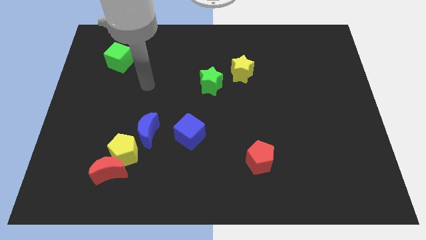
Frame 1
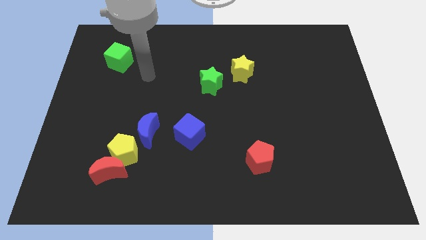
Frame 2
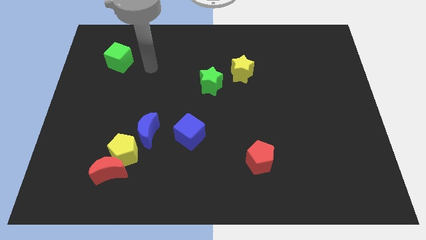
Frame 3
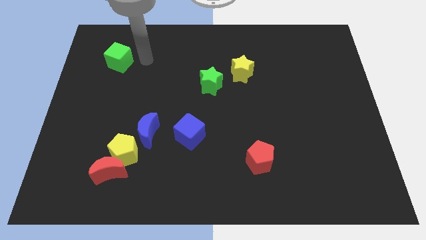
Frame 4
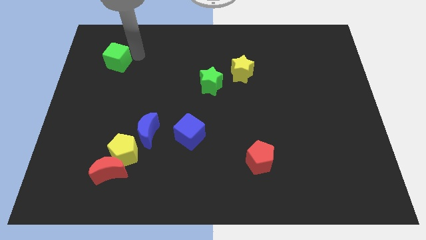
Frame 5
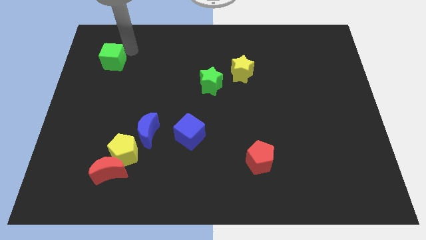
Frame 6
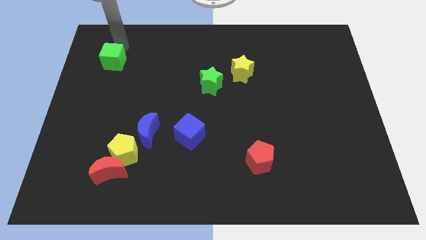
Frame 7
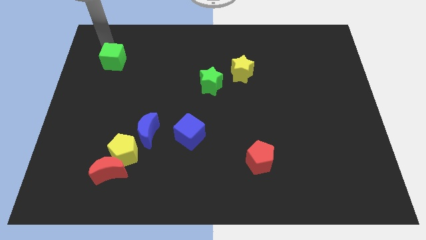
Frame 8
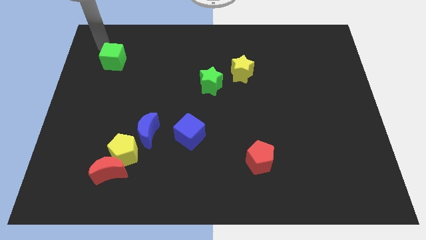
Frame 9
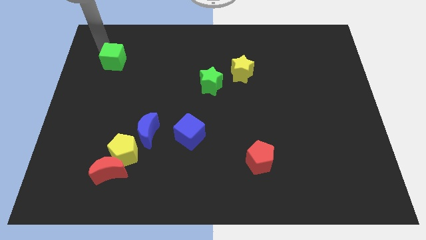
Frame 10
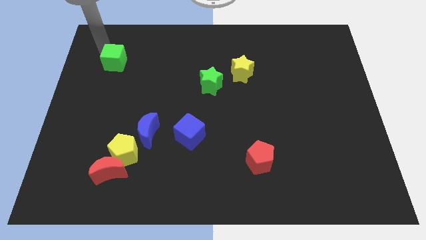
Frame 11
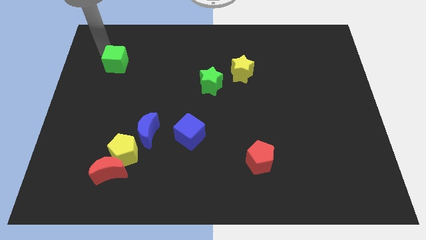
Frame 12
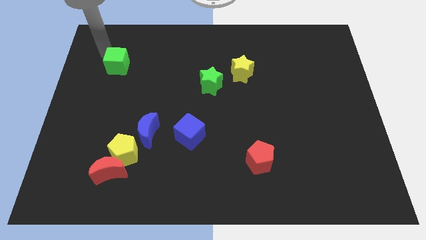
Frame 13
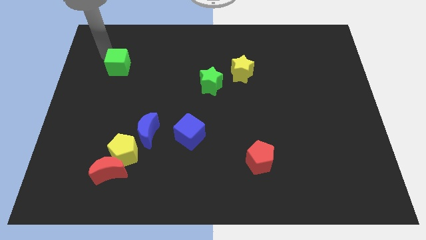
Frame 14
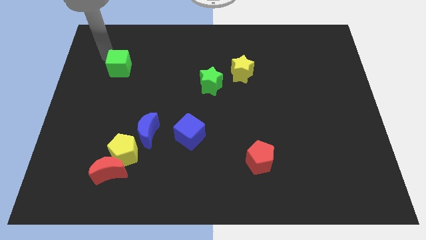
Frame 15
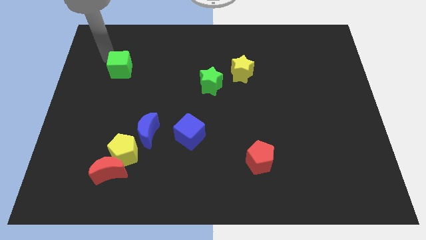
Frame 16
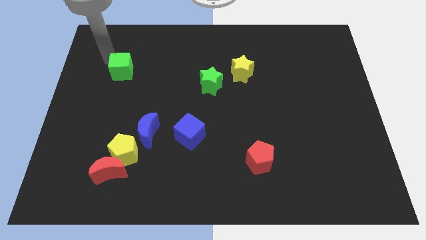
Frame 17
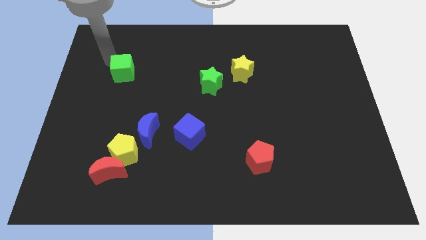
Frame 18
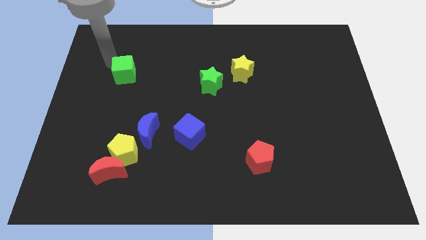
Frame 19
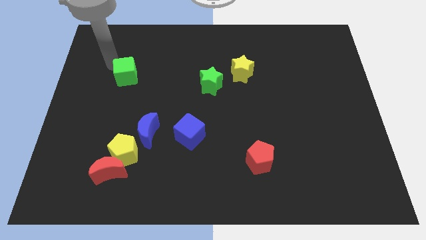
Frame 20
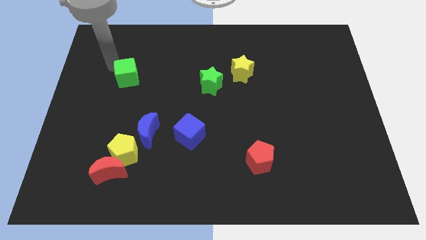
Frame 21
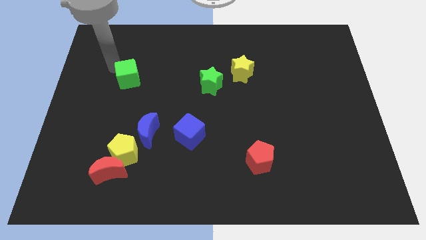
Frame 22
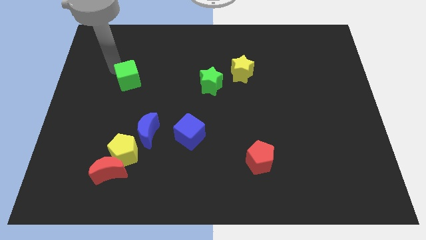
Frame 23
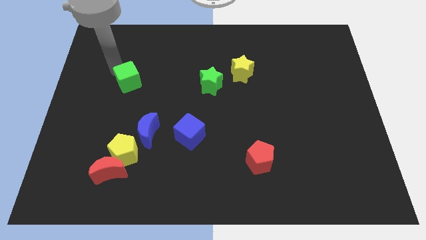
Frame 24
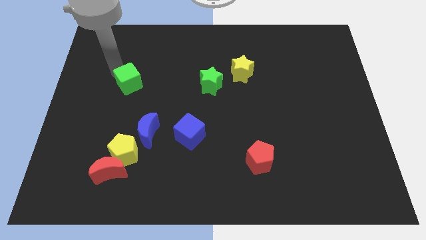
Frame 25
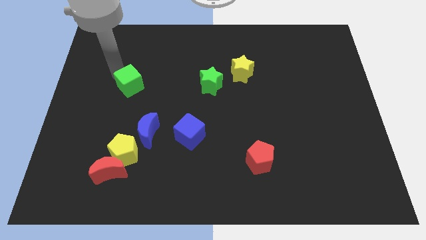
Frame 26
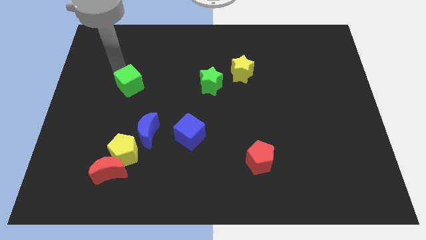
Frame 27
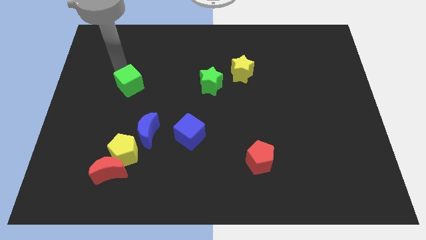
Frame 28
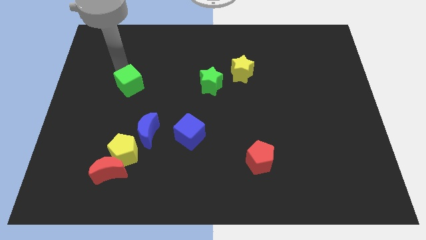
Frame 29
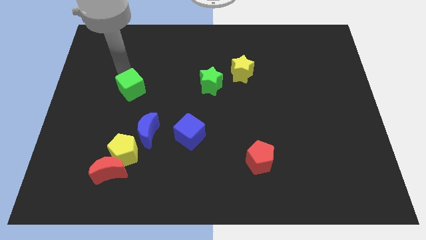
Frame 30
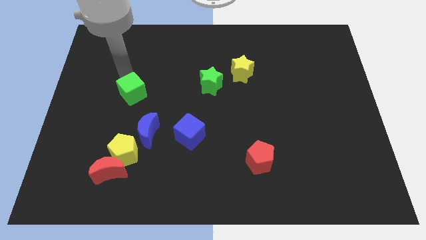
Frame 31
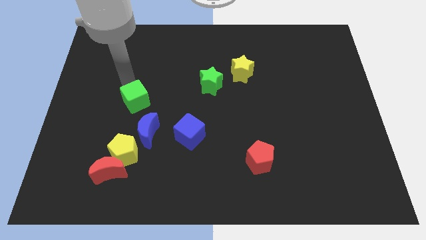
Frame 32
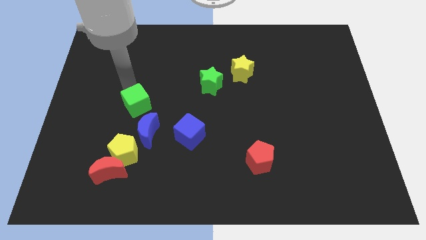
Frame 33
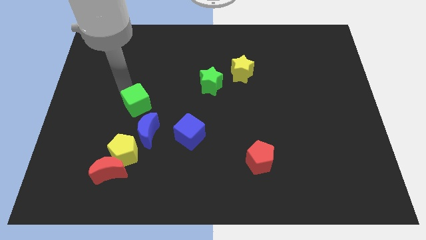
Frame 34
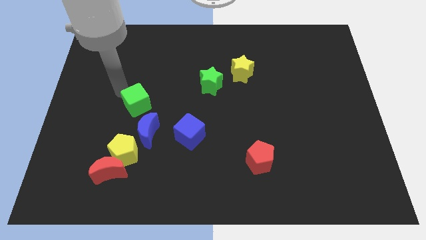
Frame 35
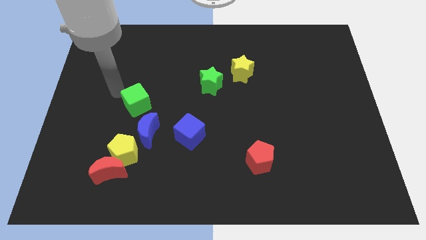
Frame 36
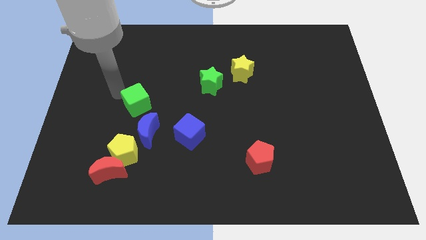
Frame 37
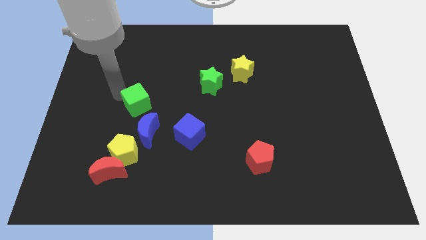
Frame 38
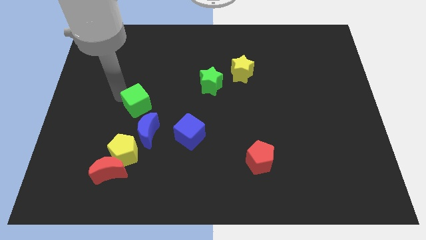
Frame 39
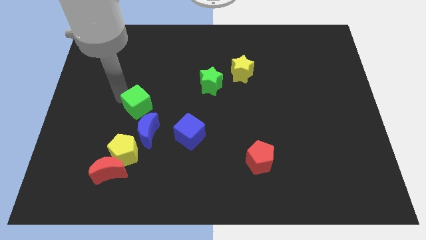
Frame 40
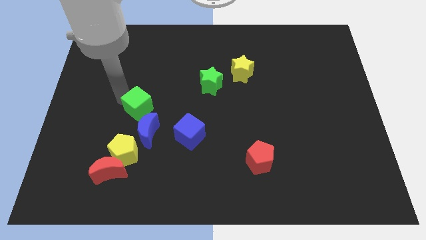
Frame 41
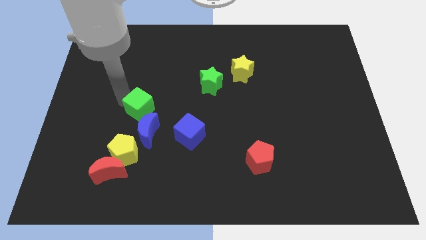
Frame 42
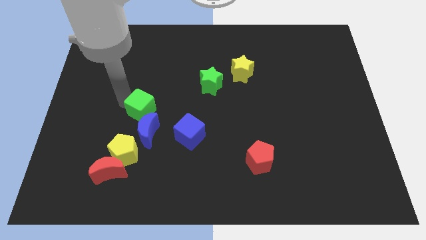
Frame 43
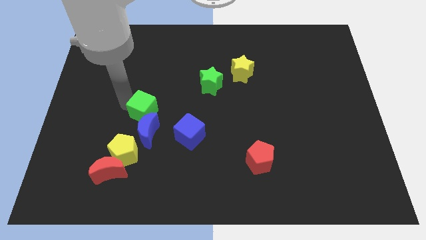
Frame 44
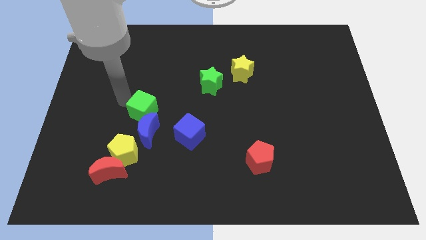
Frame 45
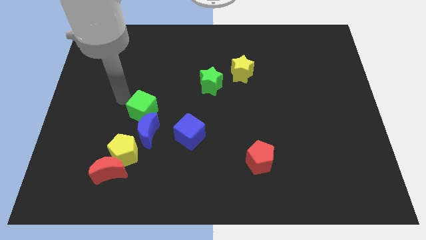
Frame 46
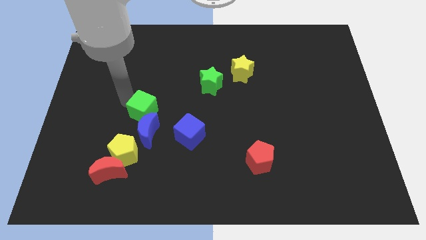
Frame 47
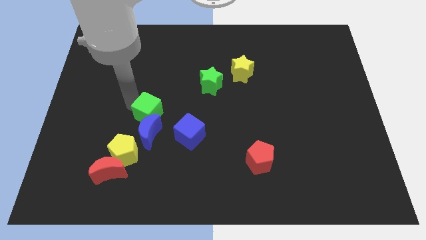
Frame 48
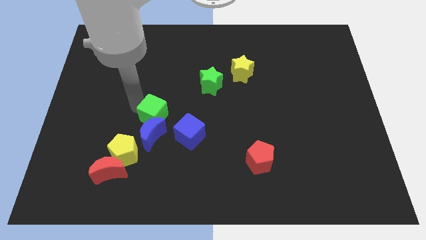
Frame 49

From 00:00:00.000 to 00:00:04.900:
push the green cube to the top right side of the yellow pentagon

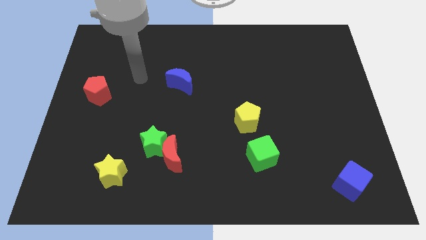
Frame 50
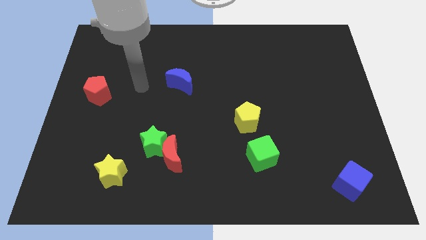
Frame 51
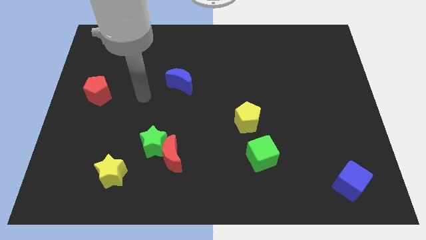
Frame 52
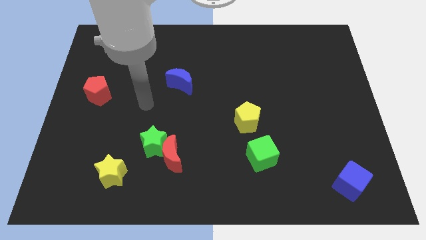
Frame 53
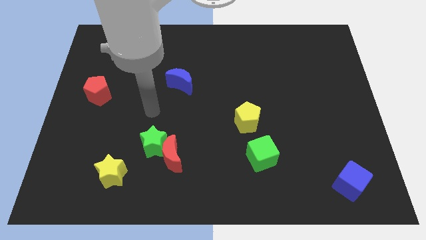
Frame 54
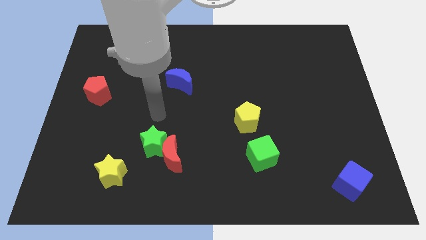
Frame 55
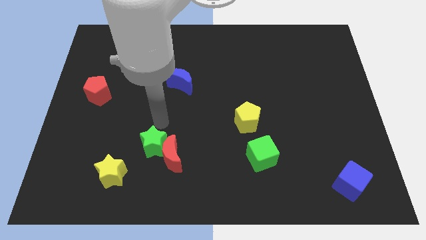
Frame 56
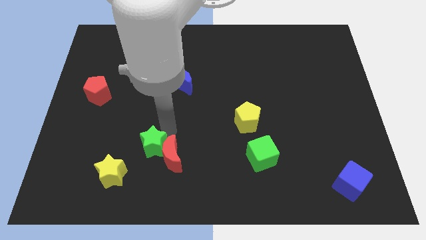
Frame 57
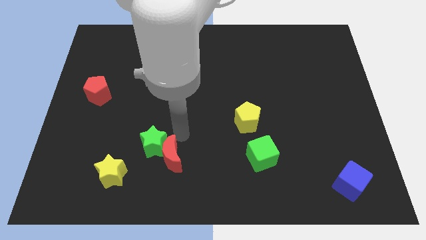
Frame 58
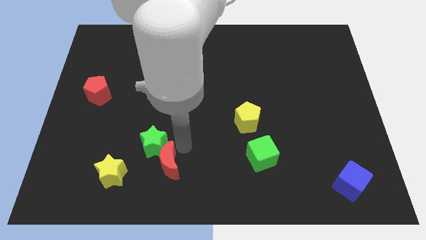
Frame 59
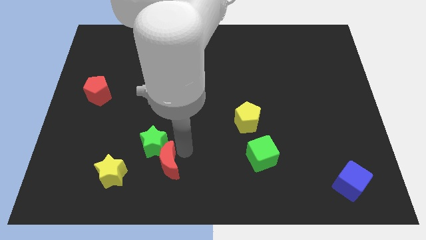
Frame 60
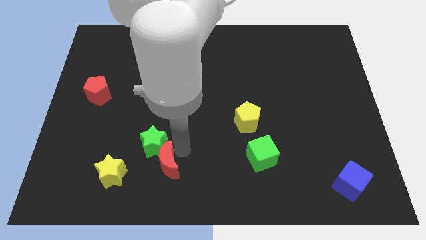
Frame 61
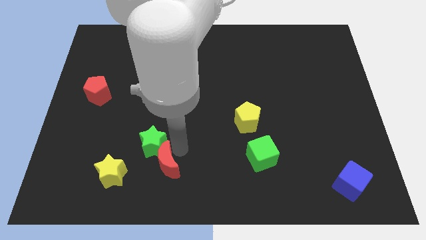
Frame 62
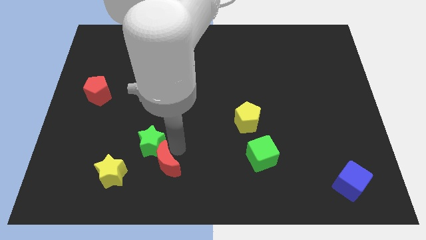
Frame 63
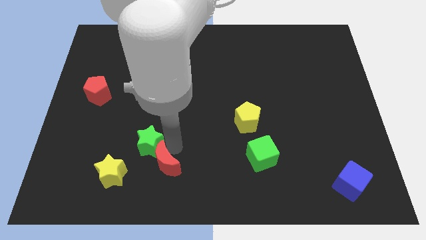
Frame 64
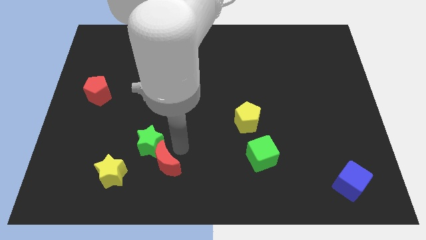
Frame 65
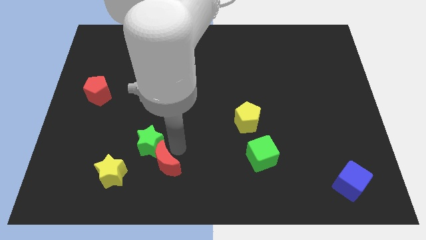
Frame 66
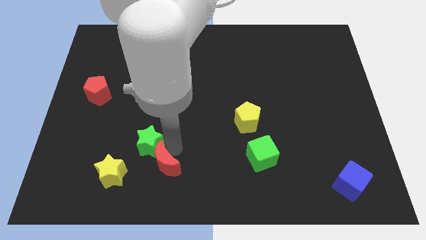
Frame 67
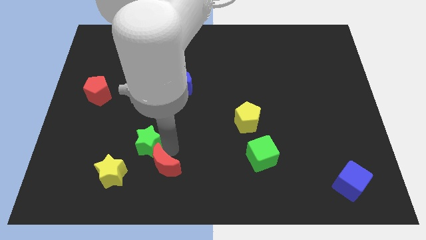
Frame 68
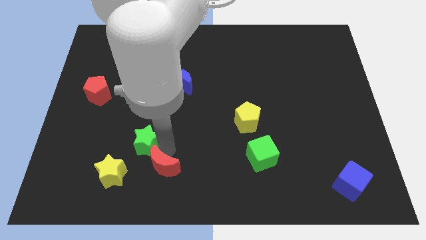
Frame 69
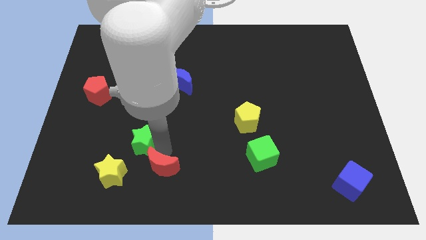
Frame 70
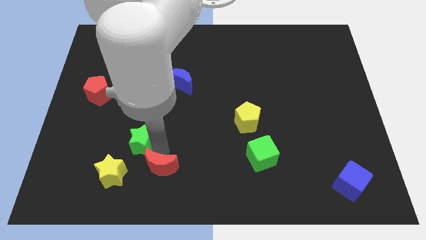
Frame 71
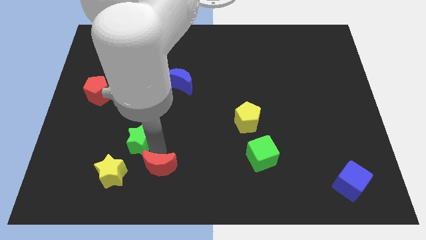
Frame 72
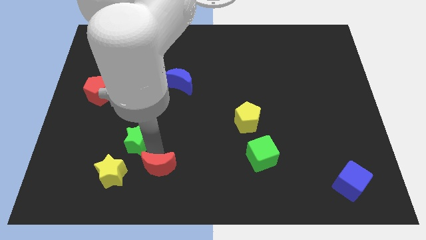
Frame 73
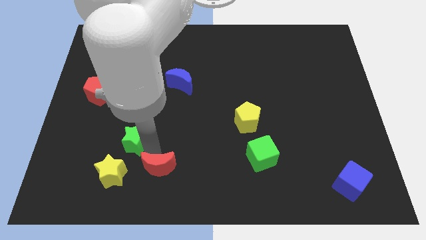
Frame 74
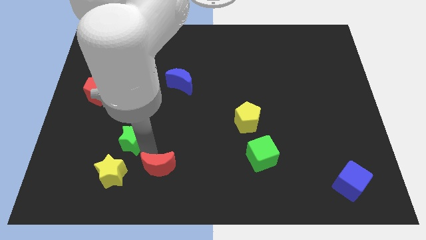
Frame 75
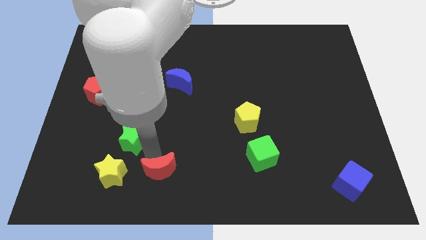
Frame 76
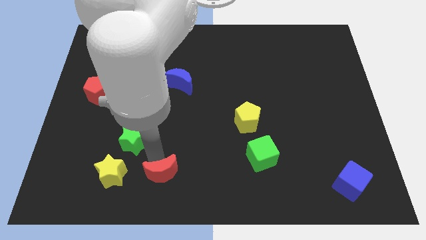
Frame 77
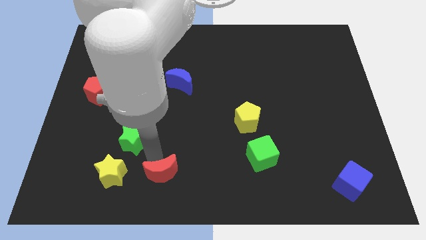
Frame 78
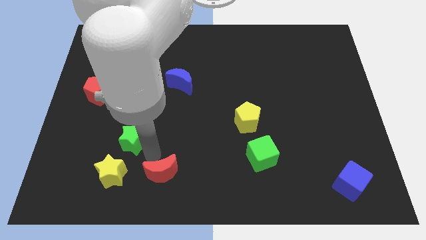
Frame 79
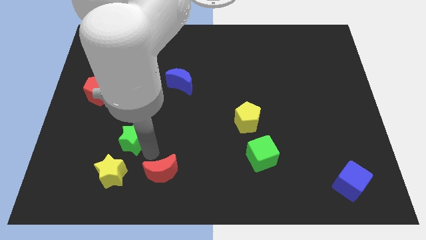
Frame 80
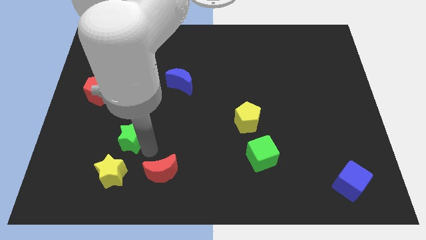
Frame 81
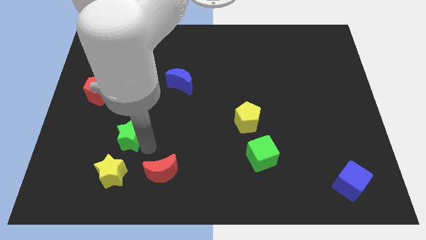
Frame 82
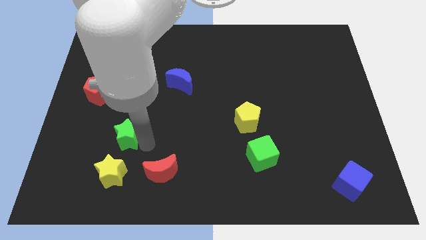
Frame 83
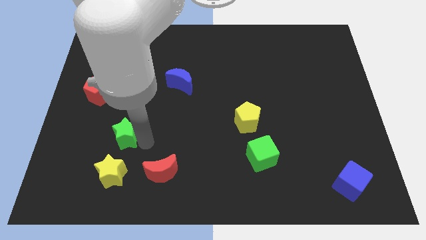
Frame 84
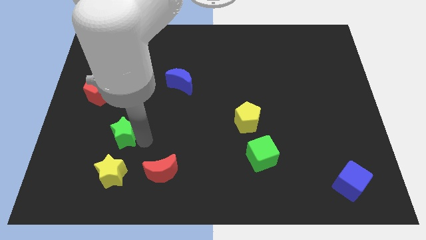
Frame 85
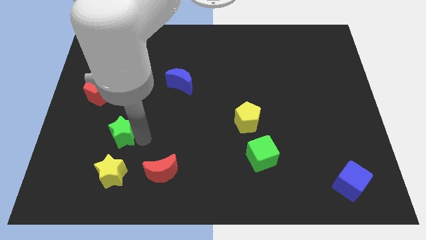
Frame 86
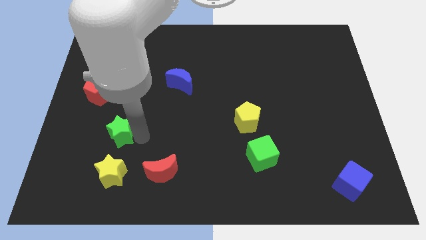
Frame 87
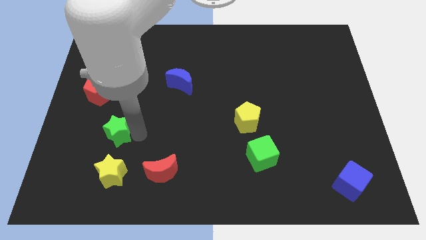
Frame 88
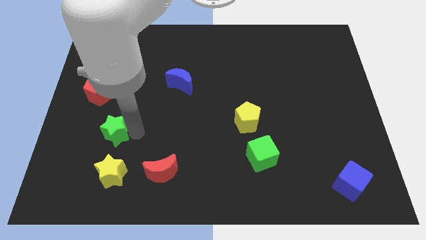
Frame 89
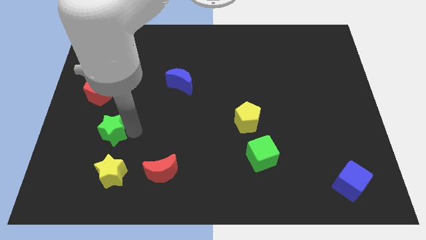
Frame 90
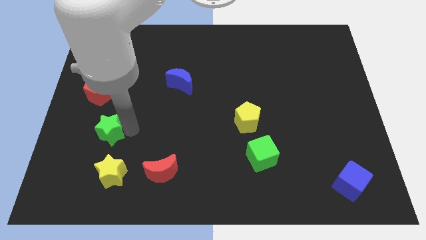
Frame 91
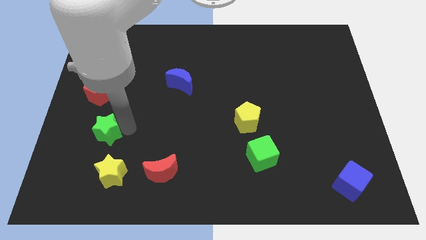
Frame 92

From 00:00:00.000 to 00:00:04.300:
put the green star to the bottom of the red pentagon
